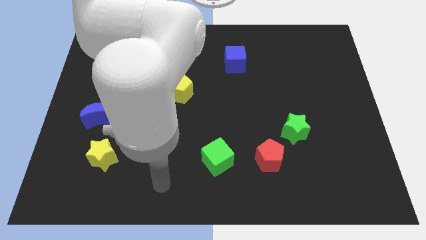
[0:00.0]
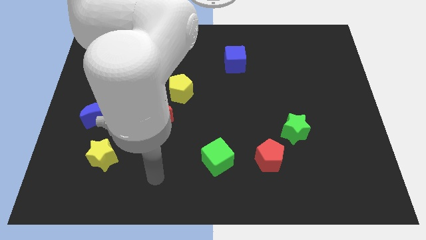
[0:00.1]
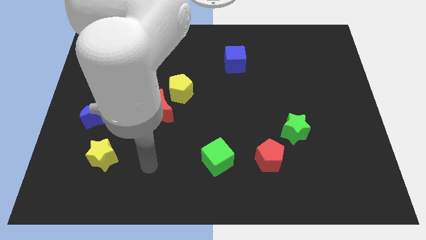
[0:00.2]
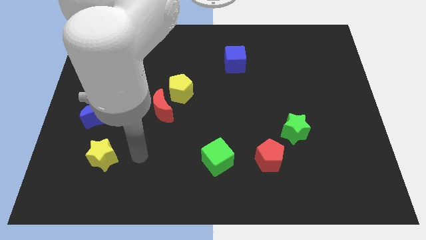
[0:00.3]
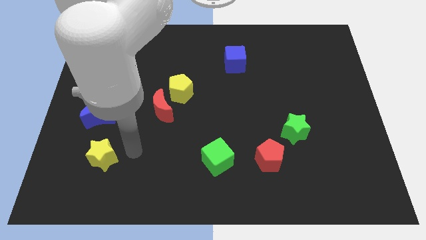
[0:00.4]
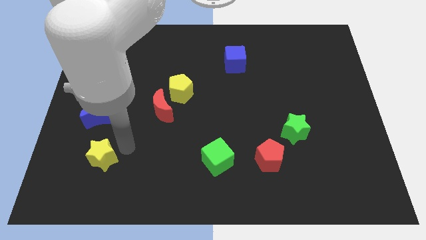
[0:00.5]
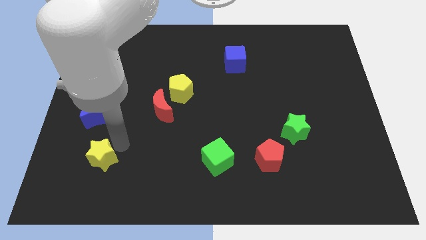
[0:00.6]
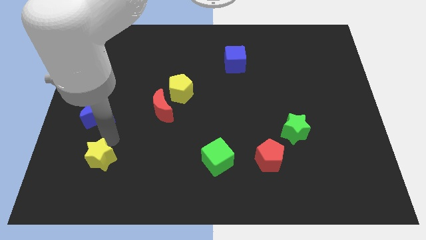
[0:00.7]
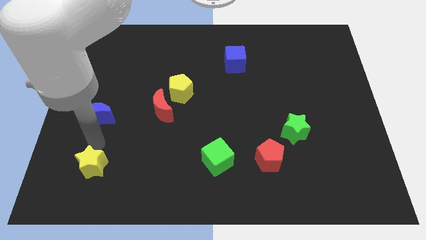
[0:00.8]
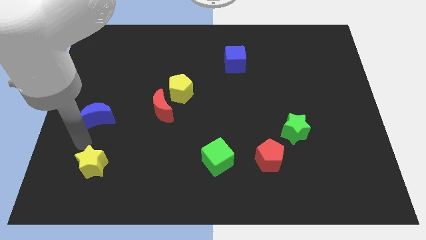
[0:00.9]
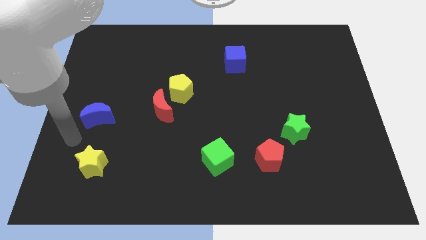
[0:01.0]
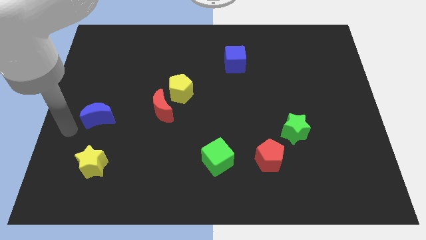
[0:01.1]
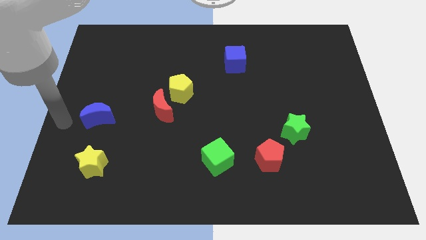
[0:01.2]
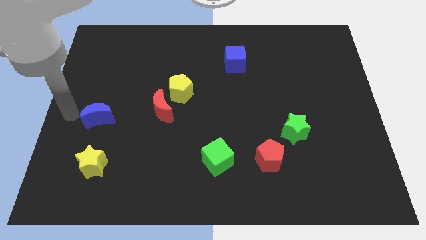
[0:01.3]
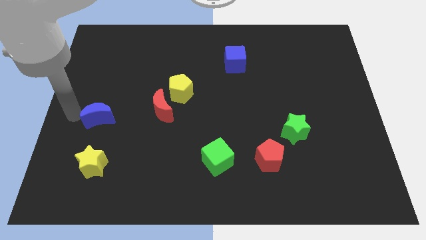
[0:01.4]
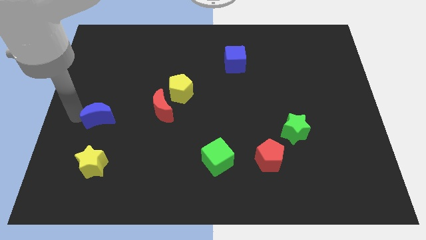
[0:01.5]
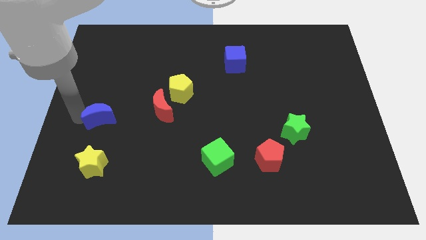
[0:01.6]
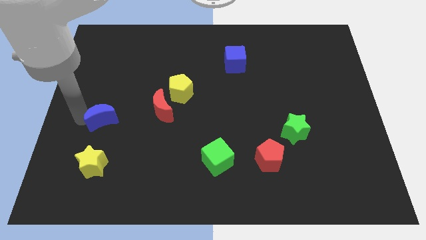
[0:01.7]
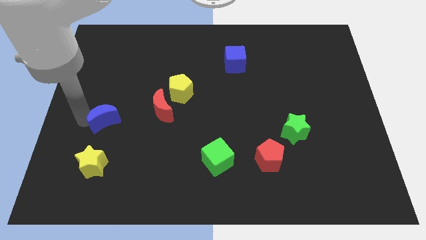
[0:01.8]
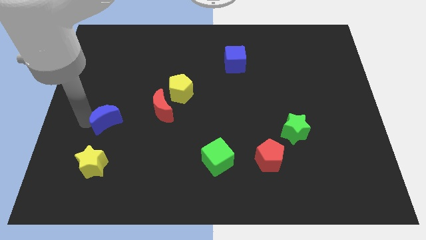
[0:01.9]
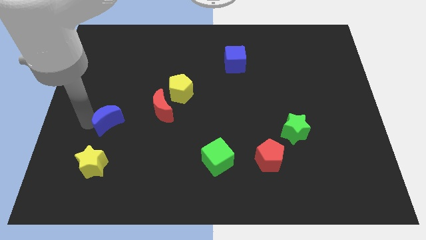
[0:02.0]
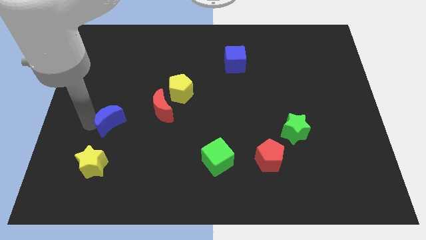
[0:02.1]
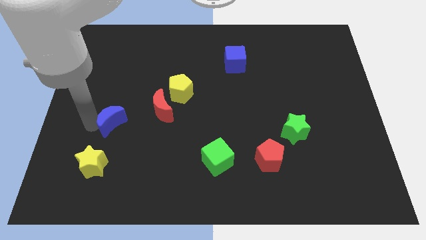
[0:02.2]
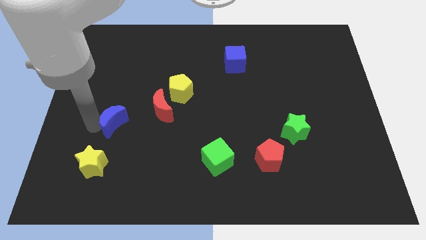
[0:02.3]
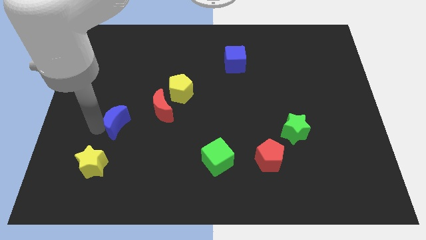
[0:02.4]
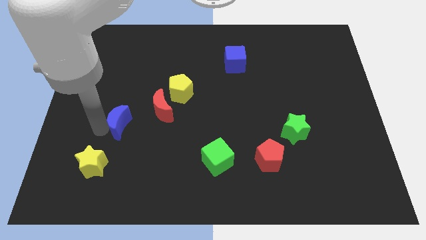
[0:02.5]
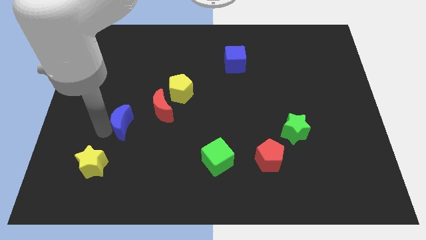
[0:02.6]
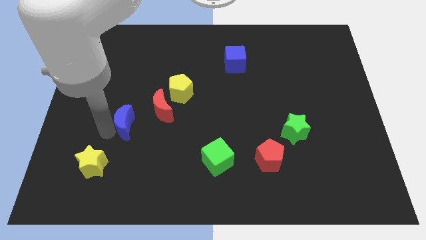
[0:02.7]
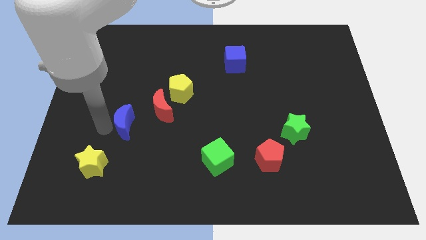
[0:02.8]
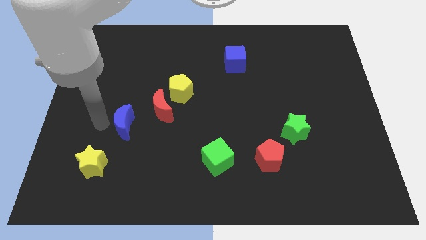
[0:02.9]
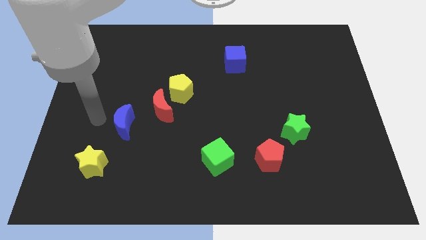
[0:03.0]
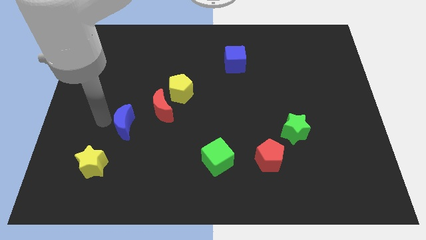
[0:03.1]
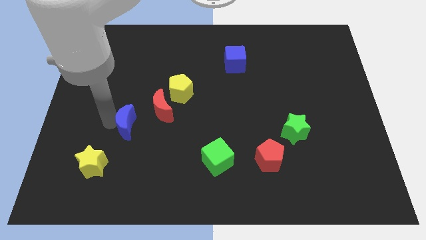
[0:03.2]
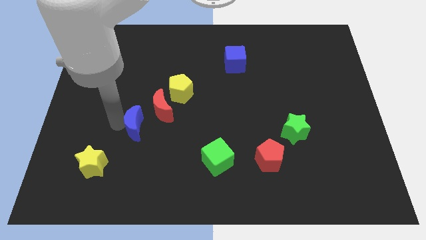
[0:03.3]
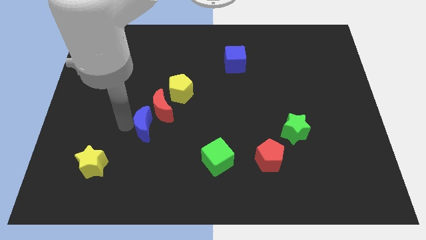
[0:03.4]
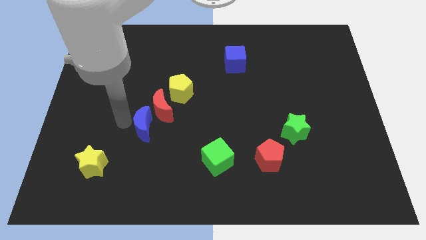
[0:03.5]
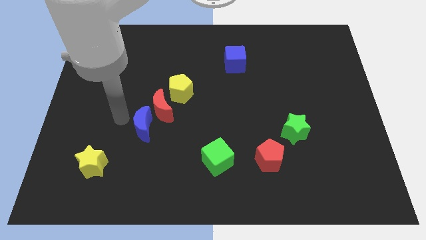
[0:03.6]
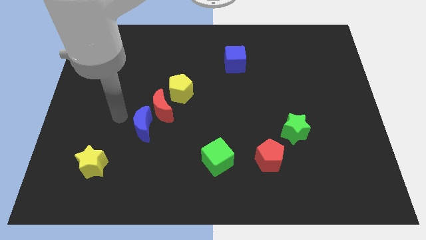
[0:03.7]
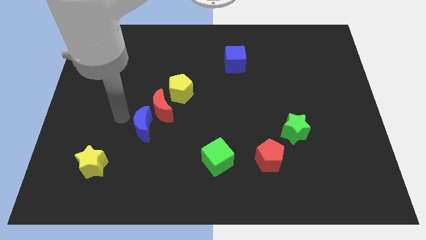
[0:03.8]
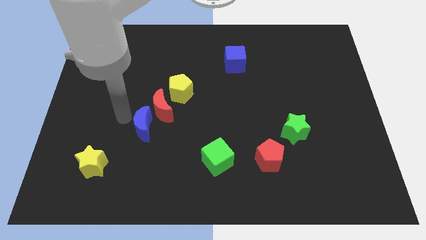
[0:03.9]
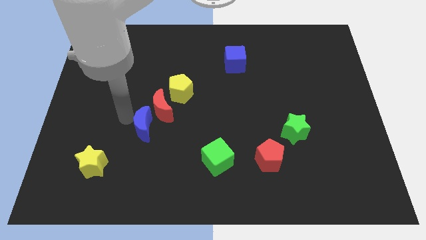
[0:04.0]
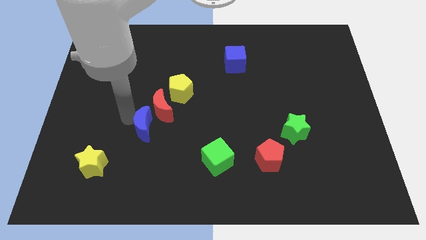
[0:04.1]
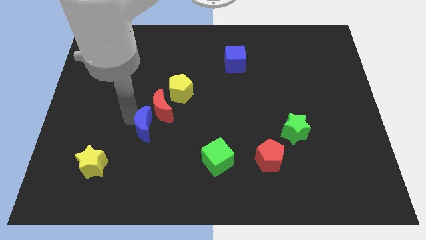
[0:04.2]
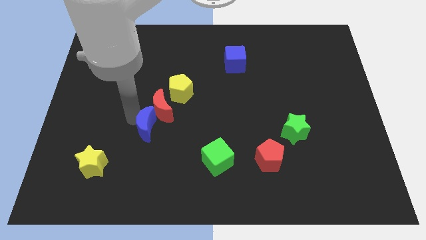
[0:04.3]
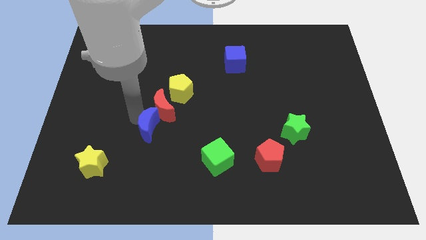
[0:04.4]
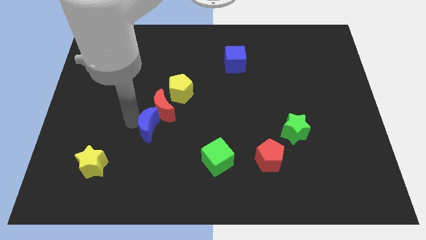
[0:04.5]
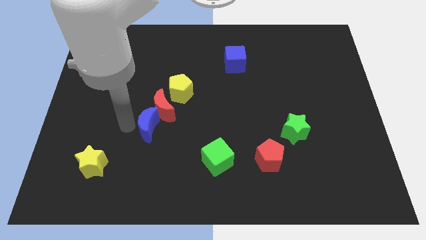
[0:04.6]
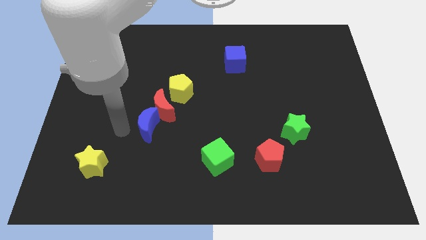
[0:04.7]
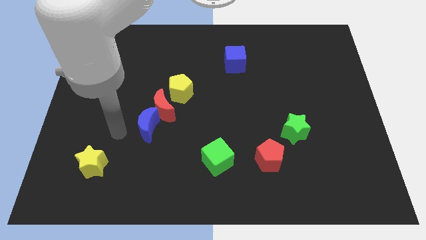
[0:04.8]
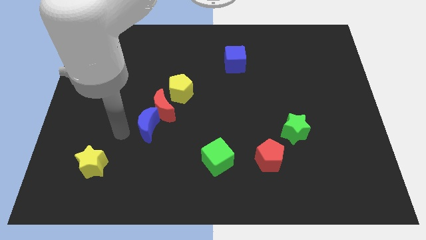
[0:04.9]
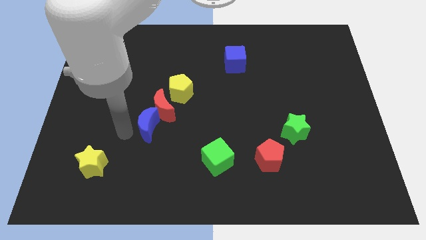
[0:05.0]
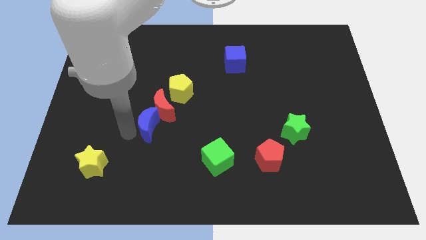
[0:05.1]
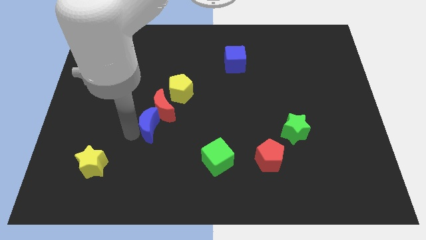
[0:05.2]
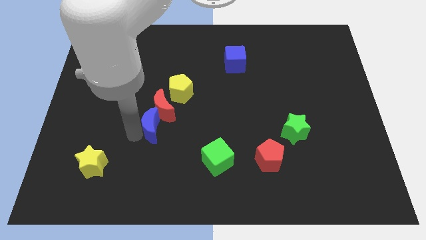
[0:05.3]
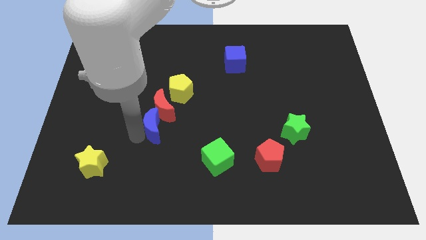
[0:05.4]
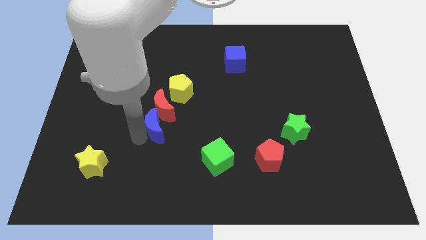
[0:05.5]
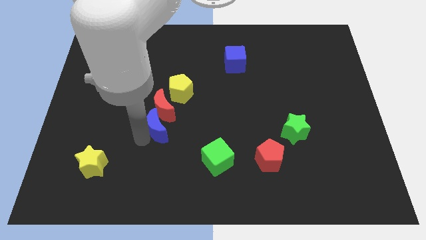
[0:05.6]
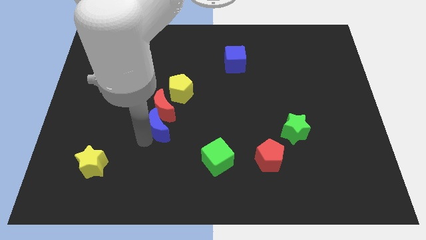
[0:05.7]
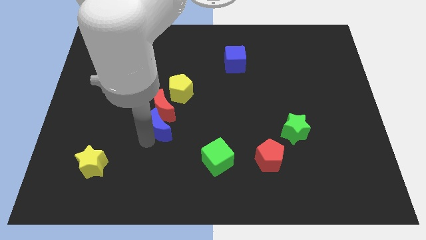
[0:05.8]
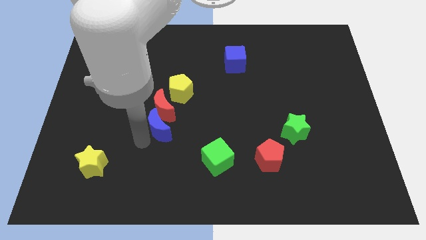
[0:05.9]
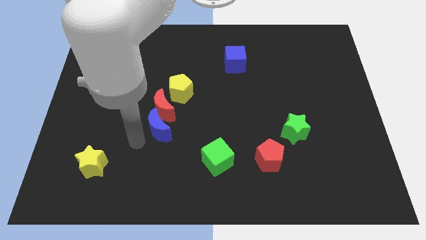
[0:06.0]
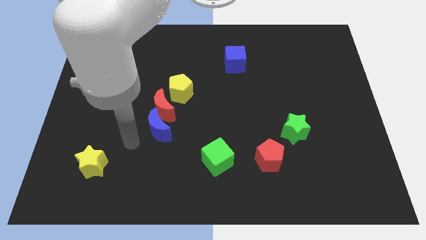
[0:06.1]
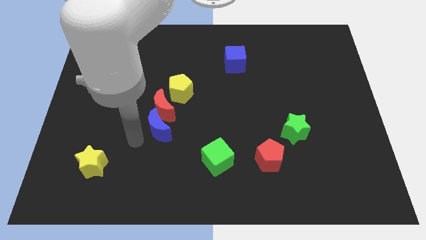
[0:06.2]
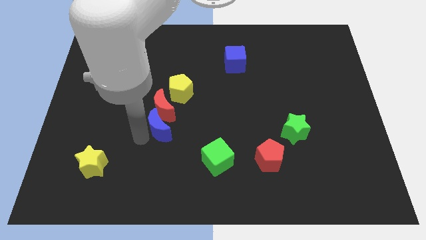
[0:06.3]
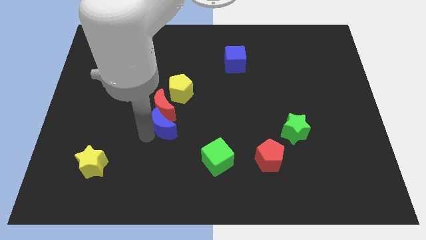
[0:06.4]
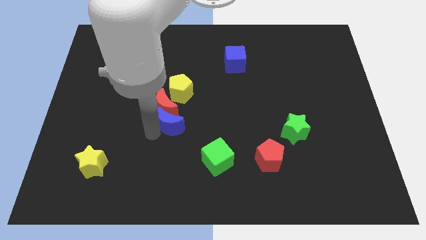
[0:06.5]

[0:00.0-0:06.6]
move the blue moon to the middle of the board
